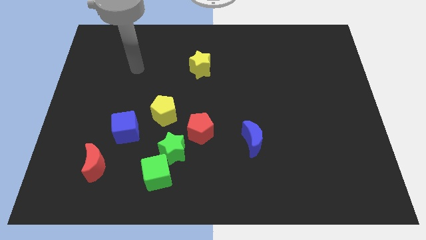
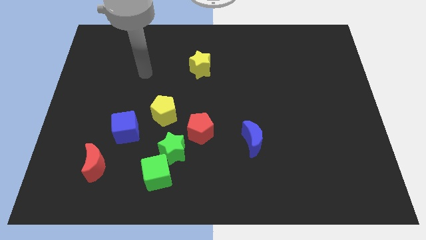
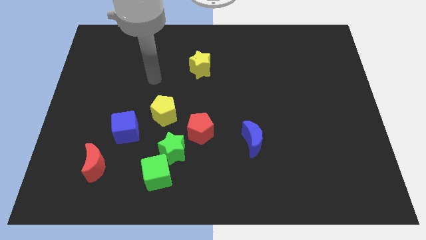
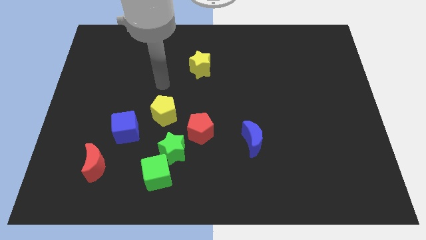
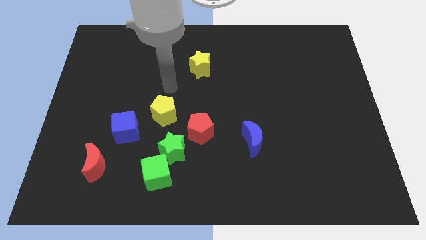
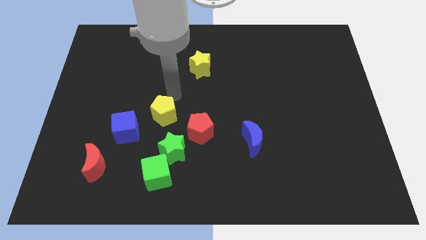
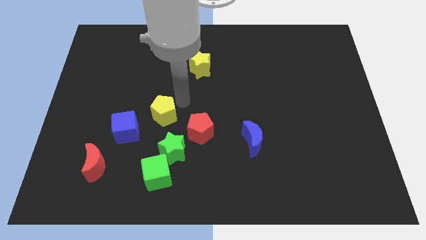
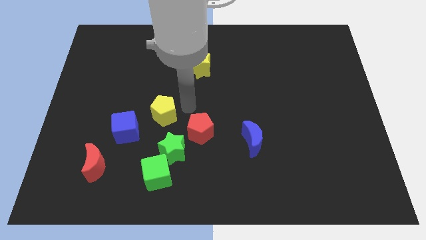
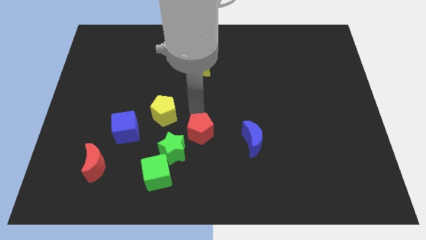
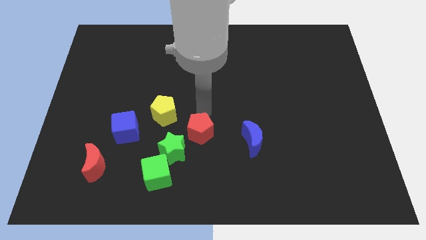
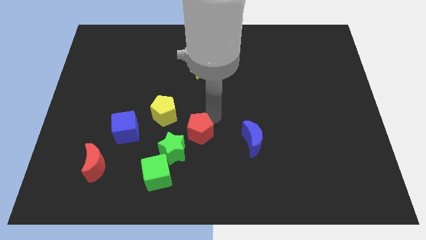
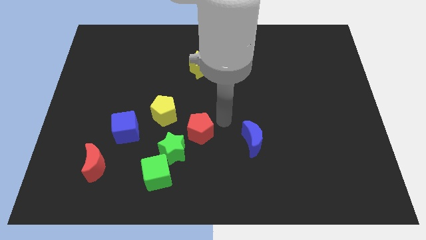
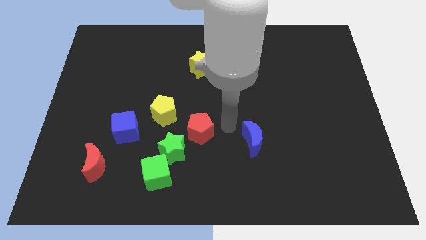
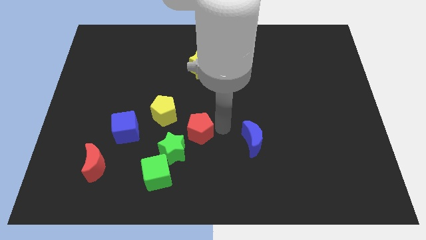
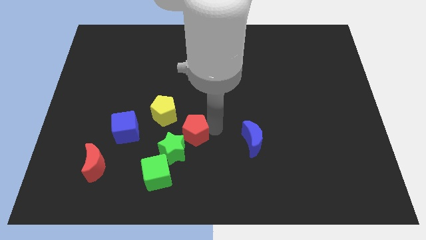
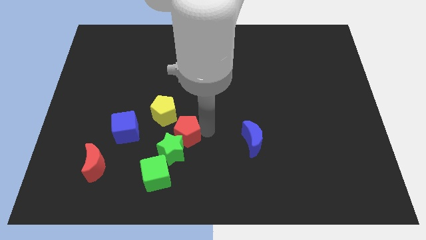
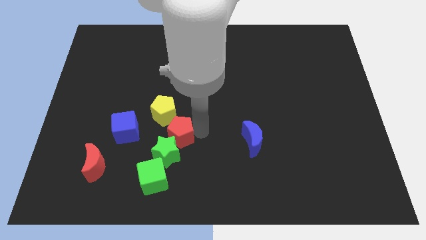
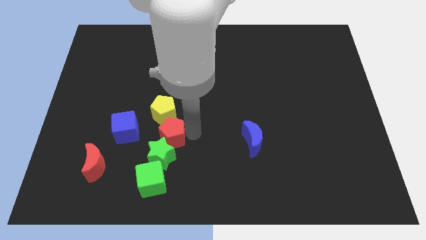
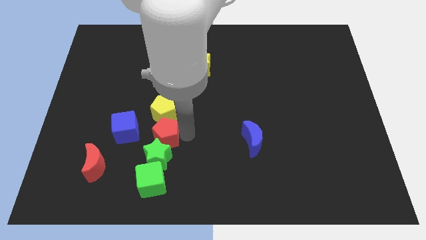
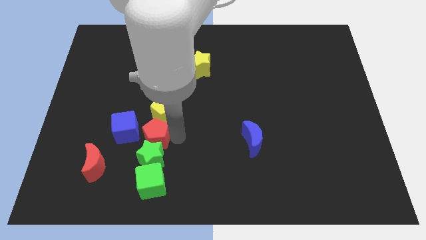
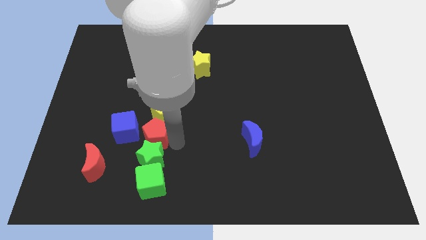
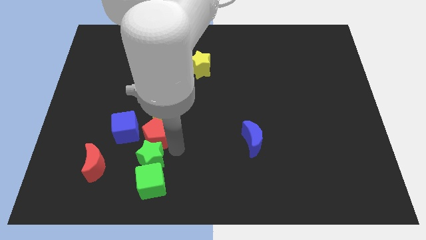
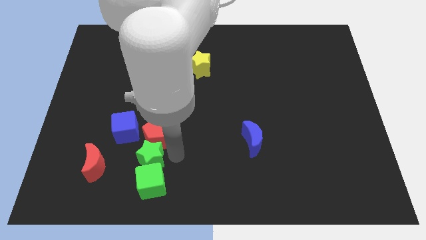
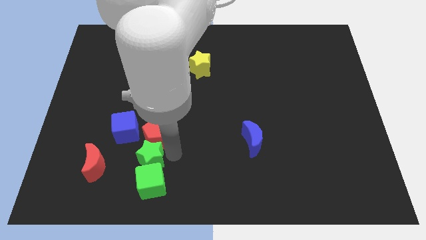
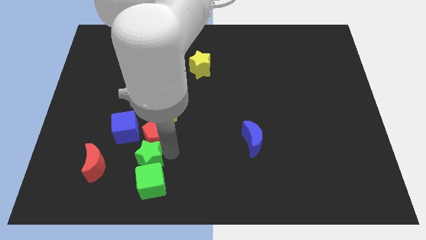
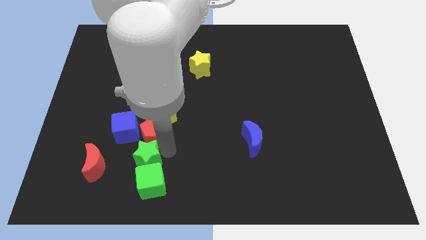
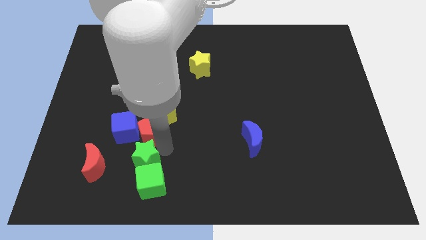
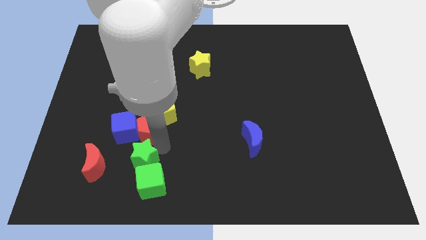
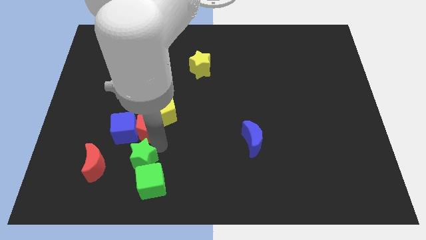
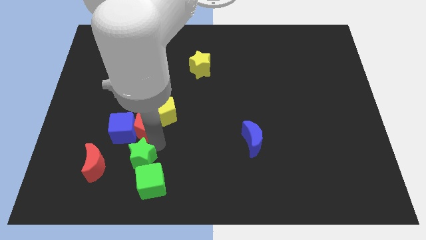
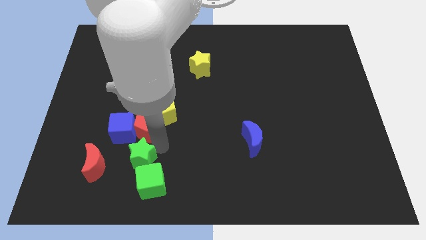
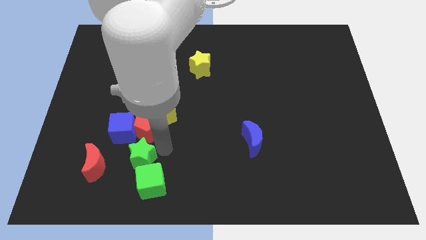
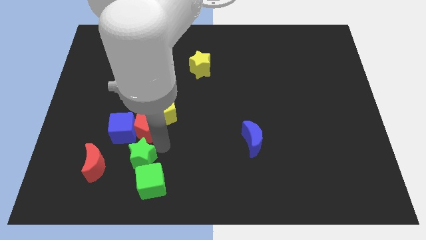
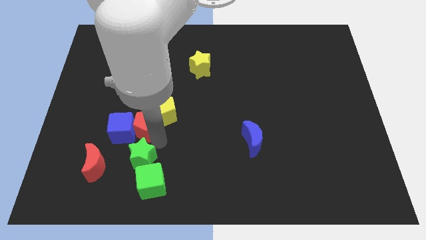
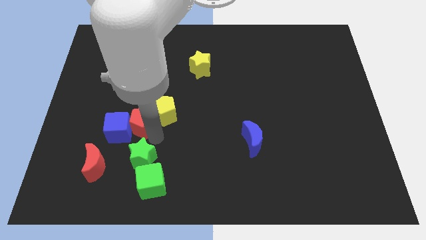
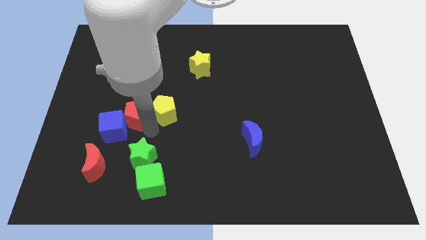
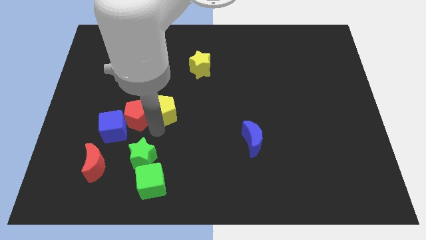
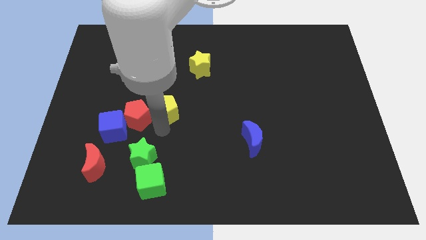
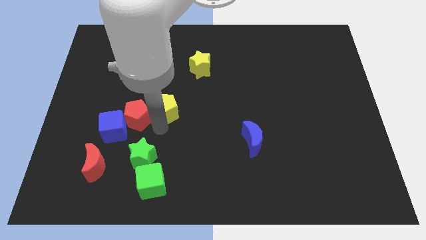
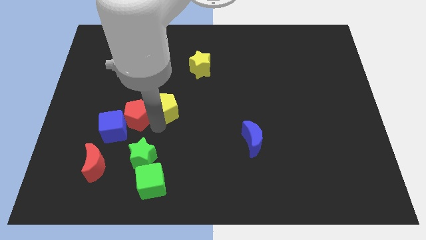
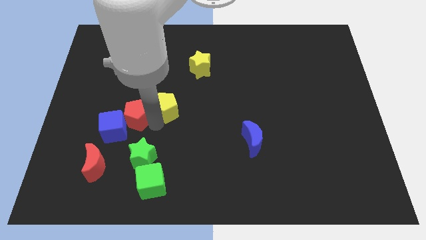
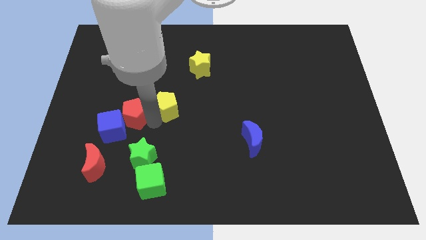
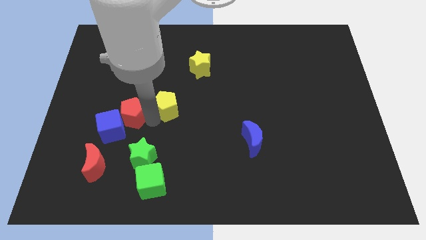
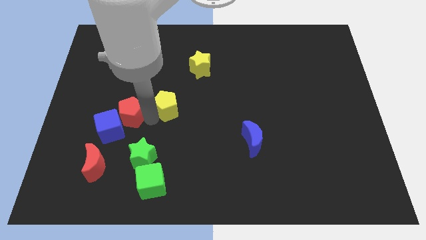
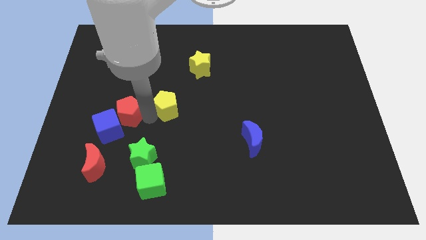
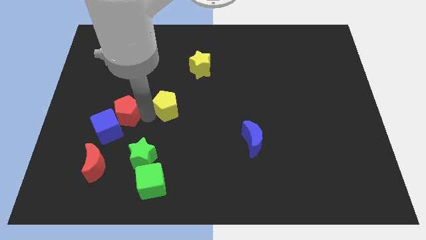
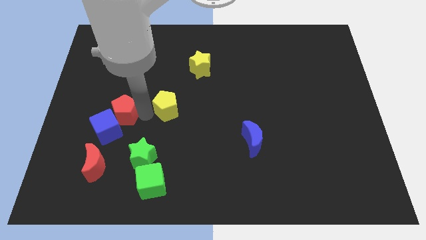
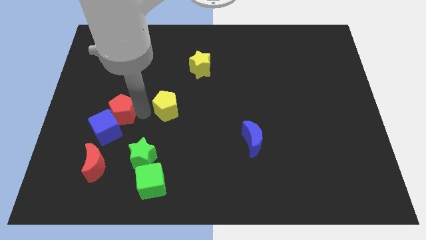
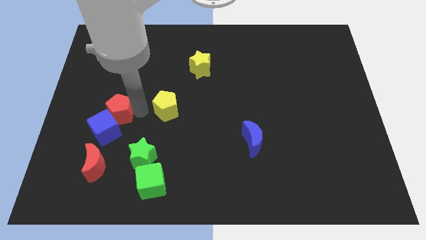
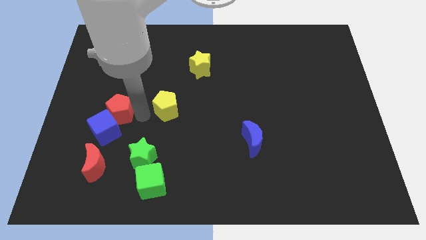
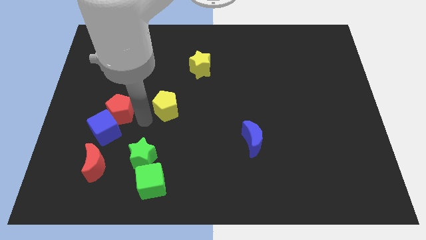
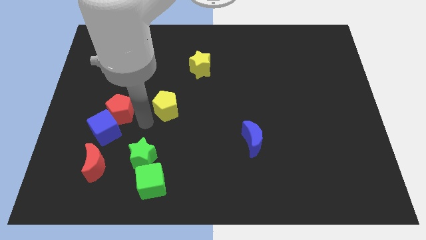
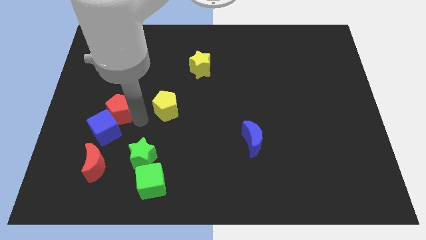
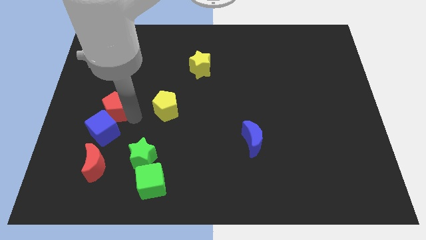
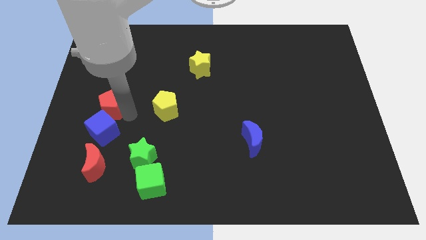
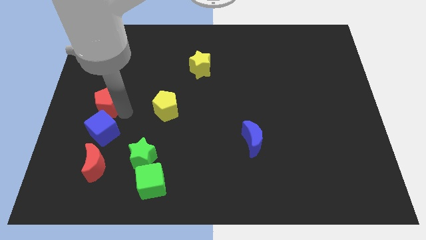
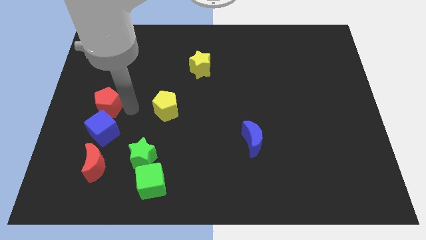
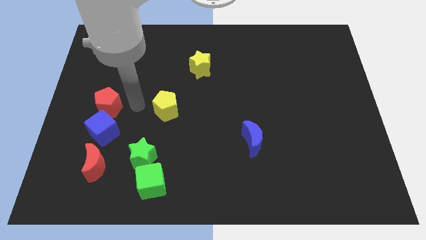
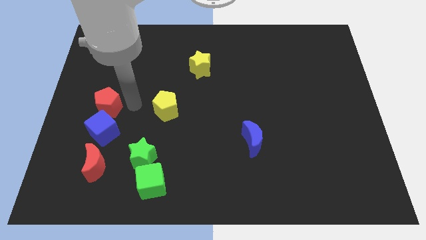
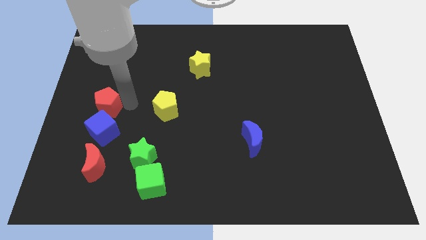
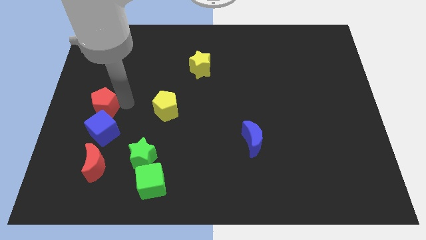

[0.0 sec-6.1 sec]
put the red pentagon to the left side

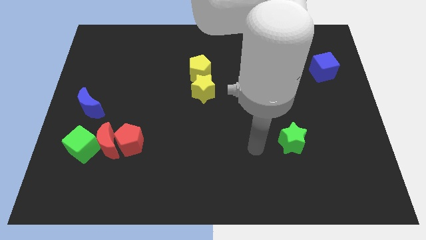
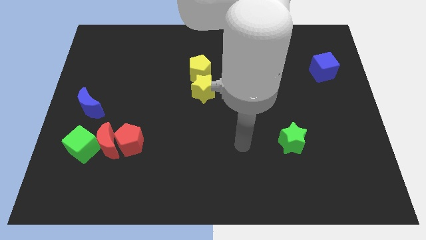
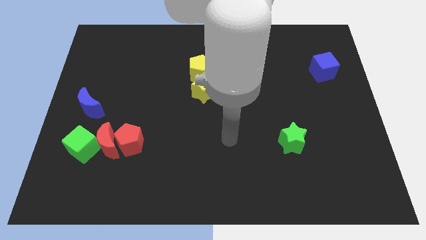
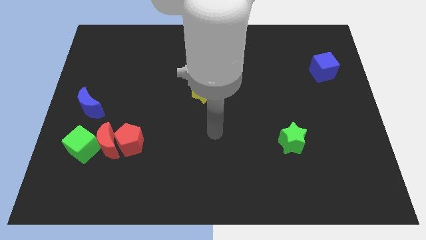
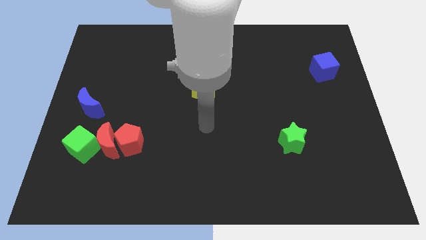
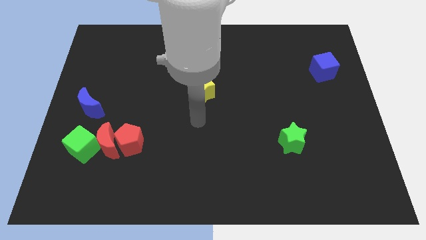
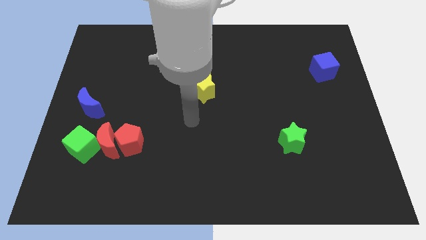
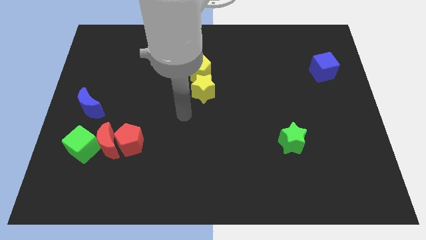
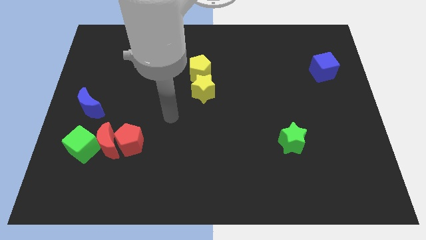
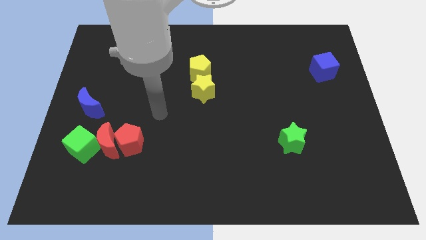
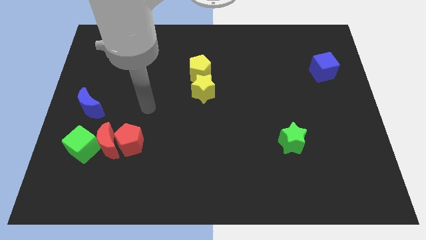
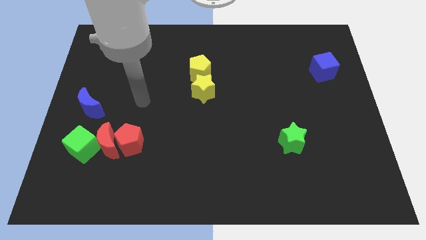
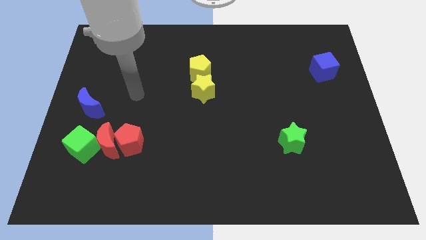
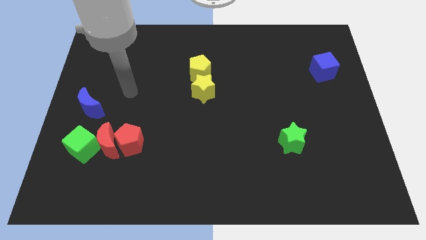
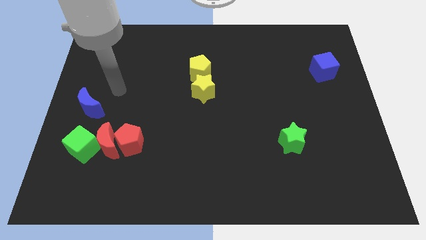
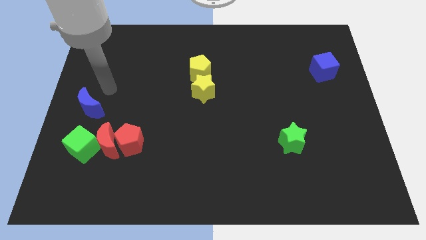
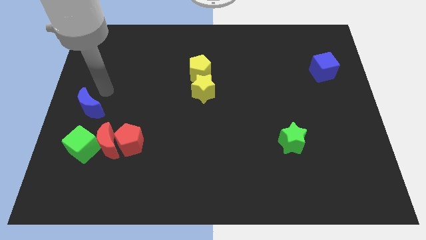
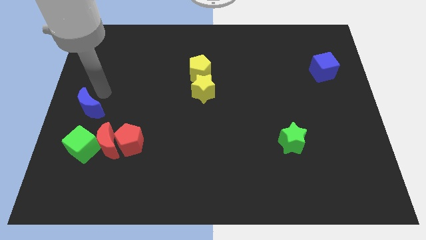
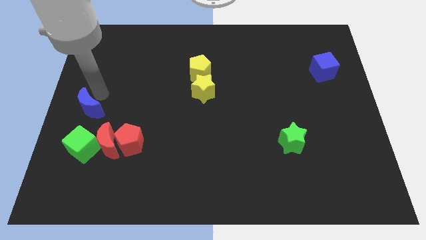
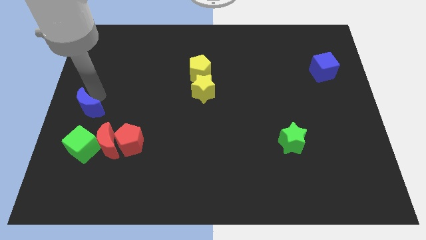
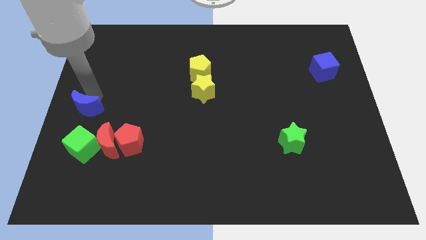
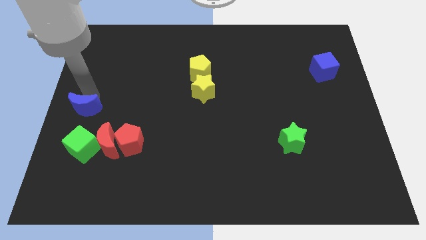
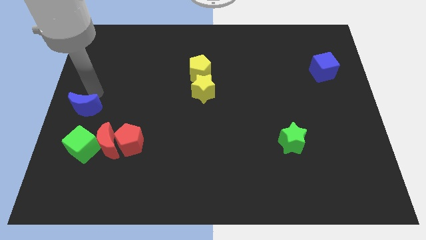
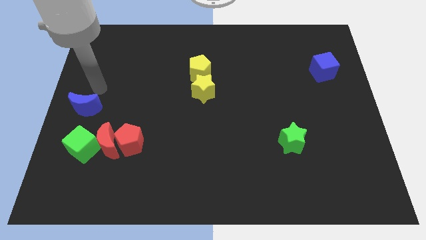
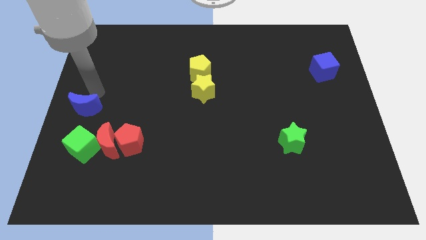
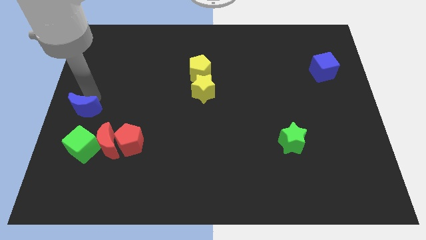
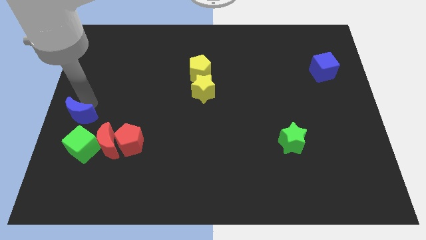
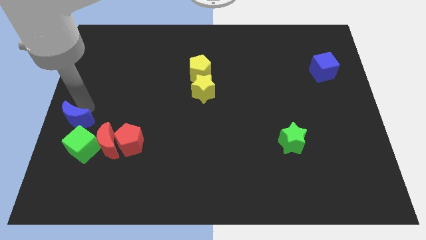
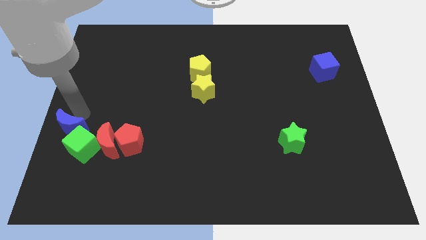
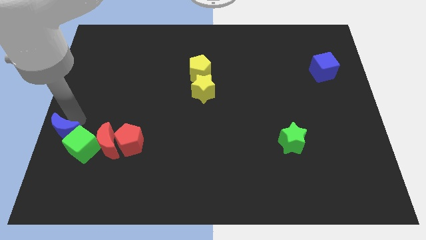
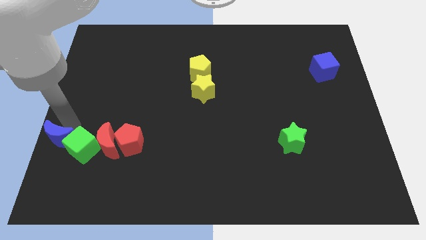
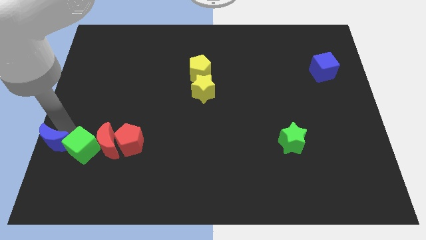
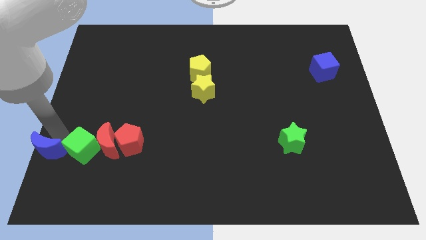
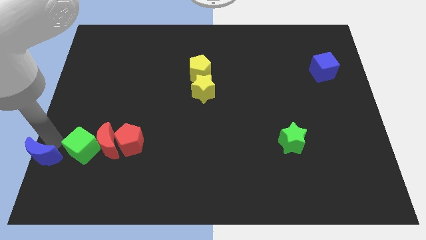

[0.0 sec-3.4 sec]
put the blue moon to the lower left corner
